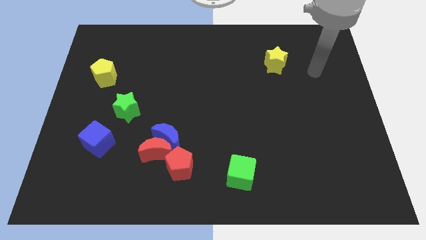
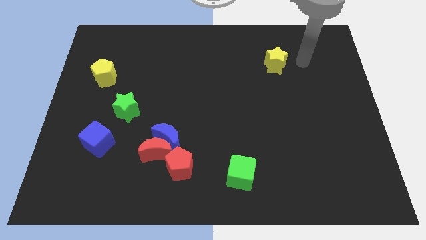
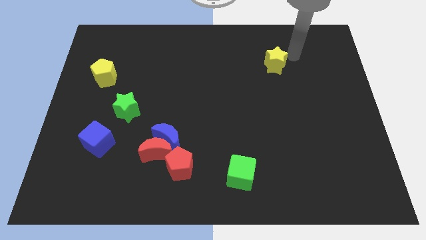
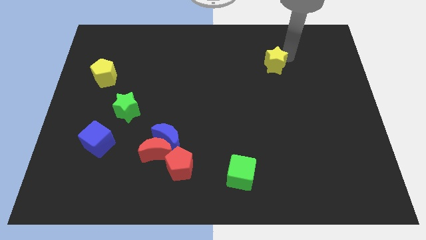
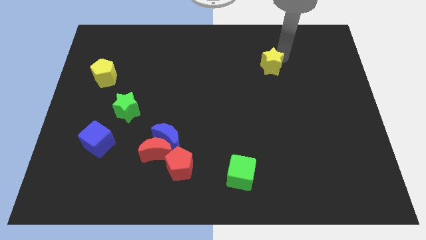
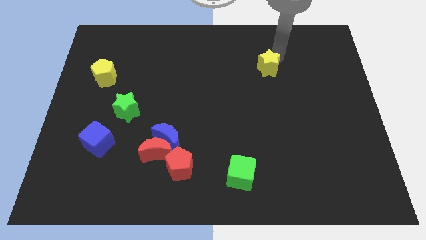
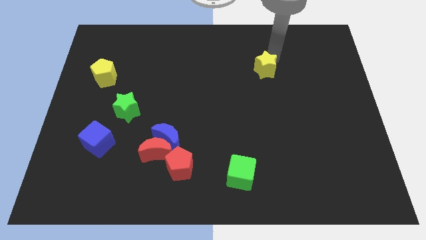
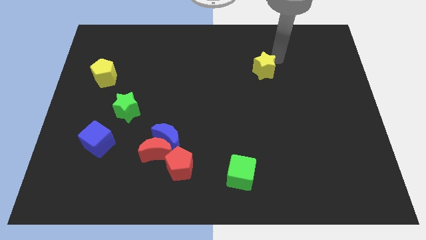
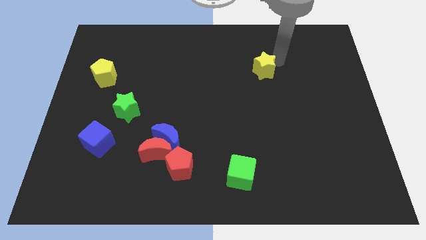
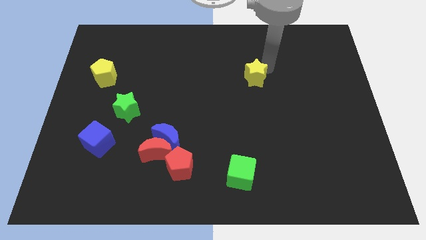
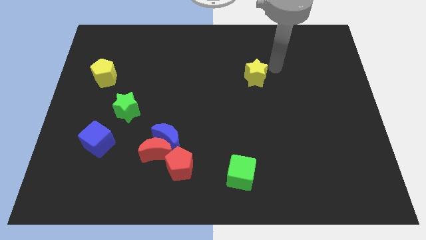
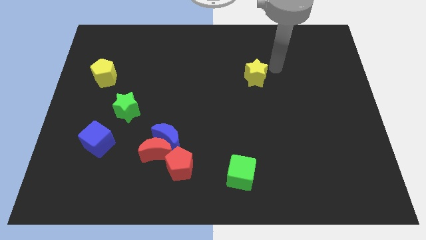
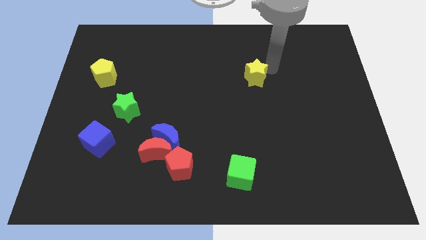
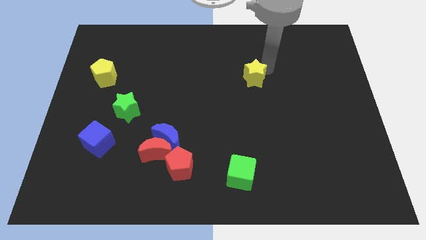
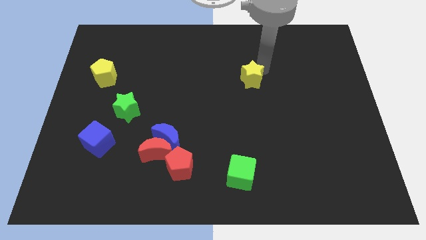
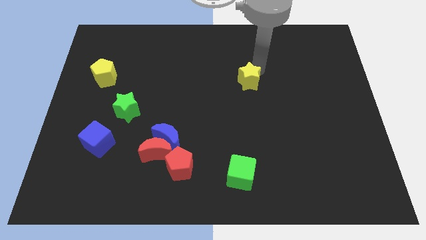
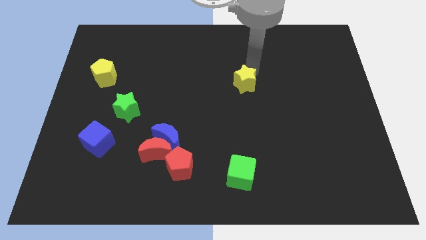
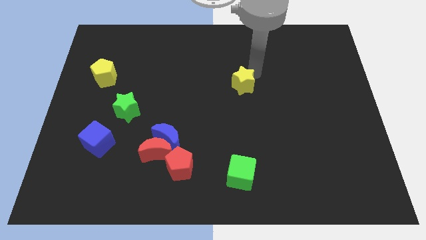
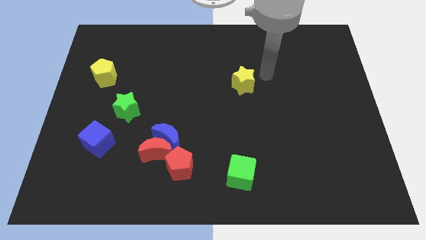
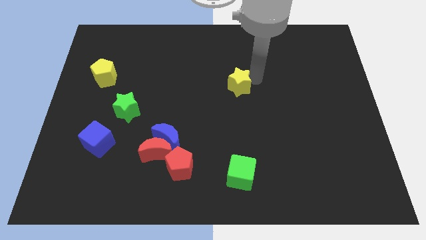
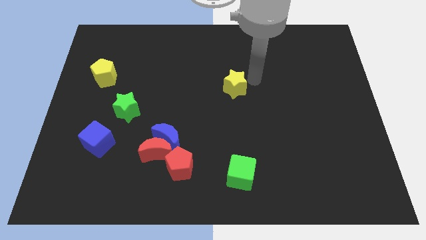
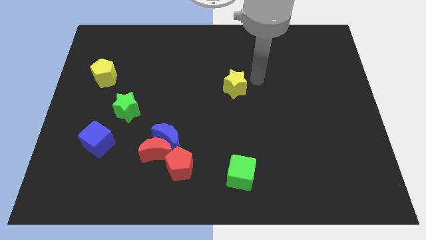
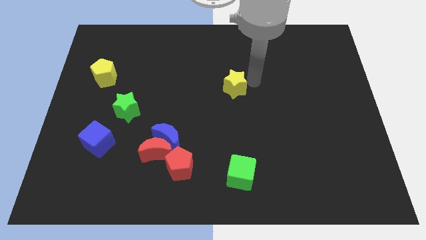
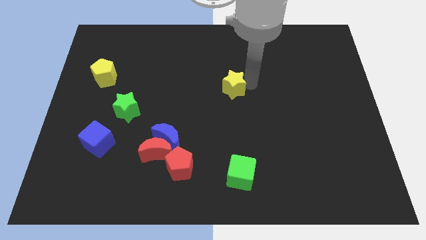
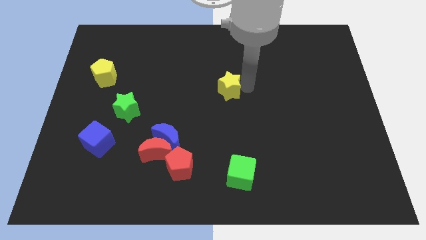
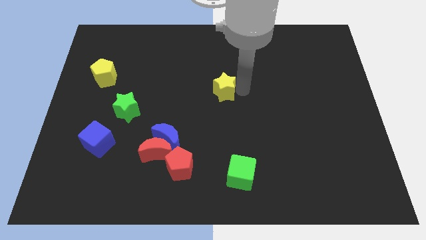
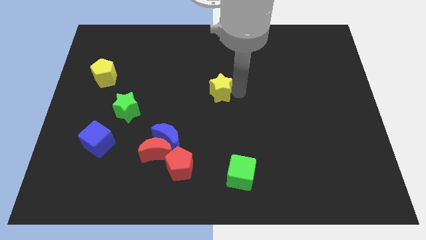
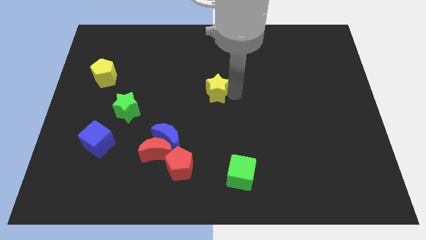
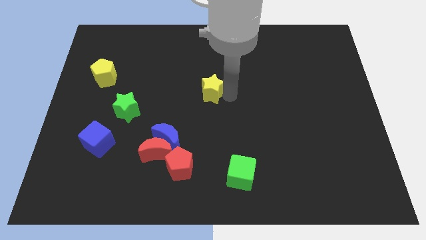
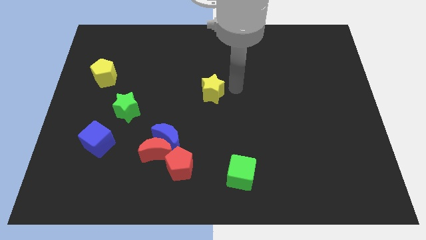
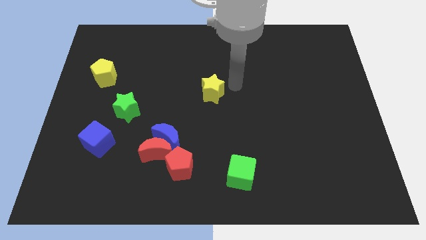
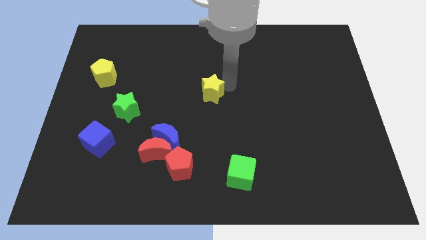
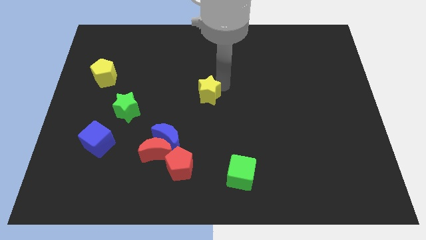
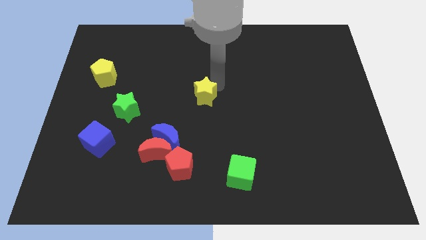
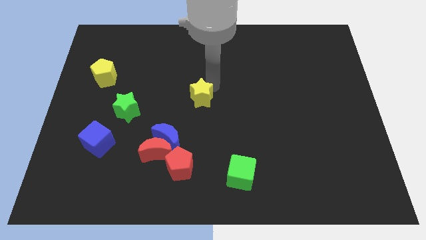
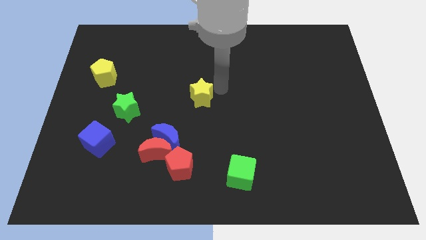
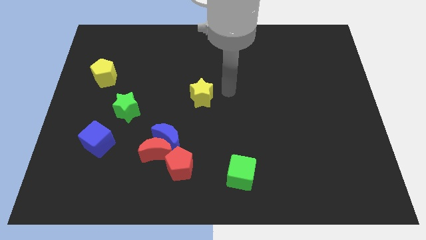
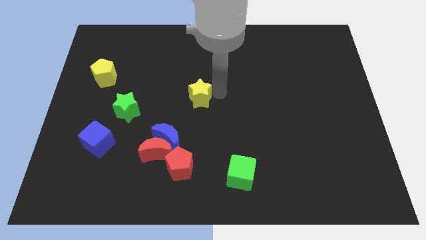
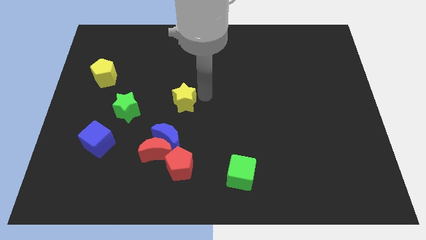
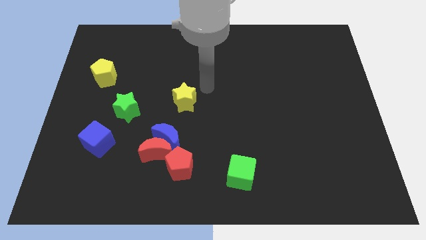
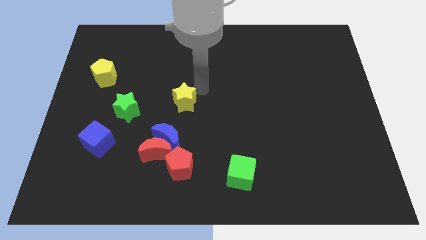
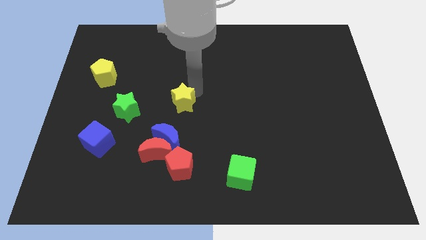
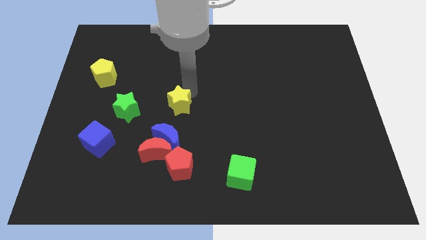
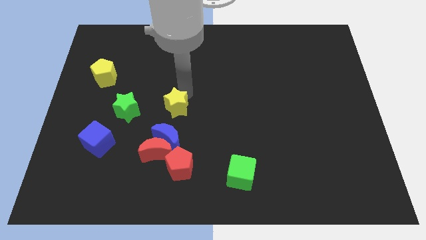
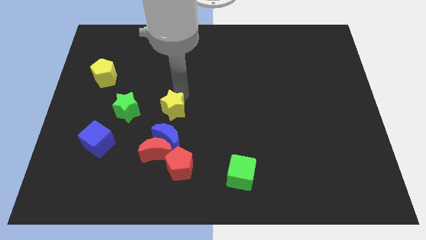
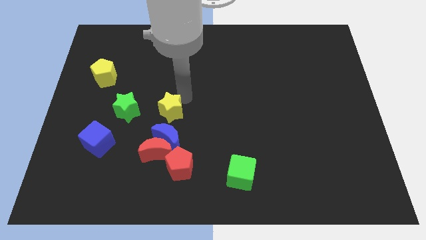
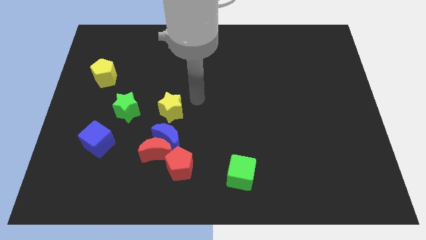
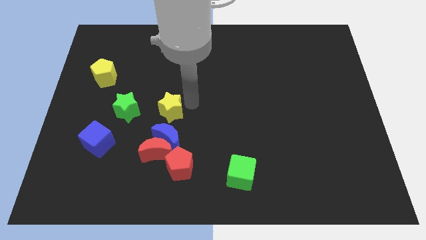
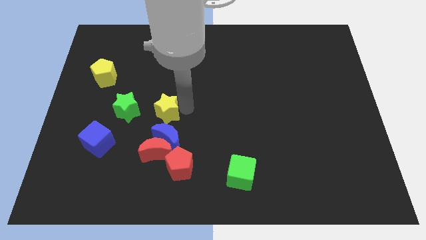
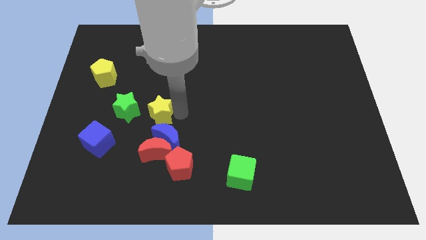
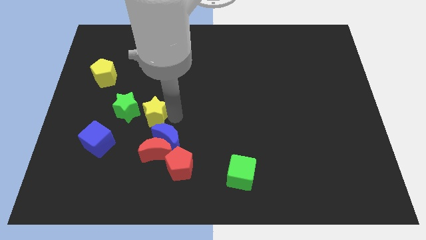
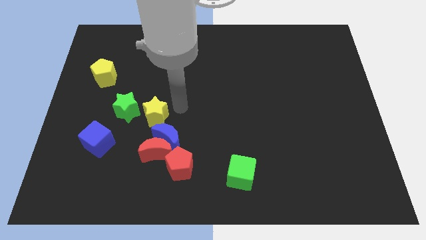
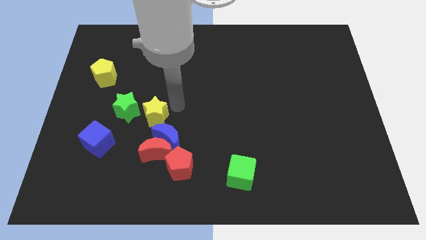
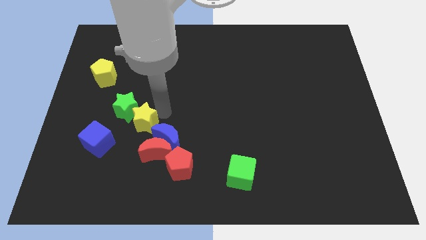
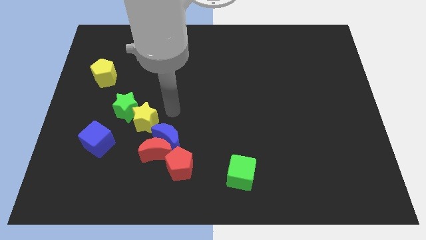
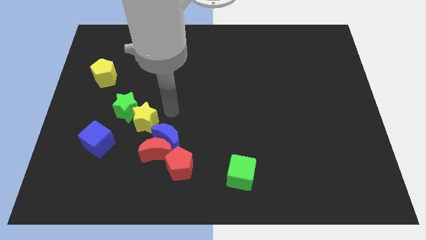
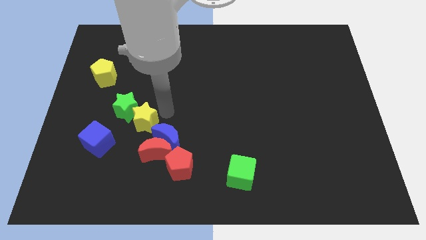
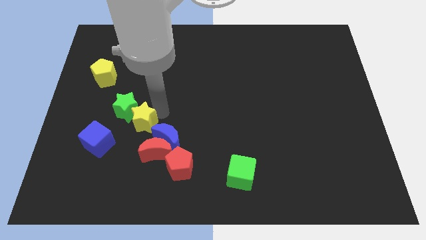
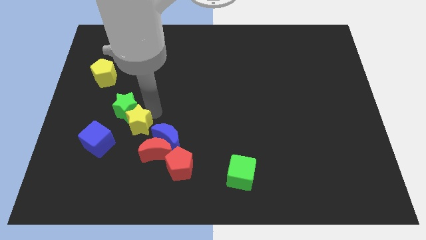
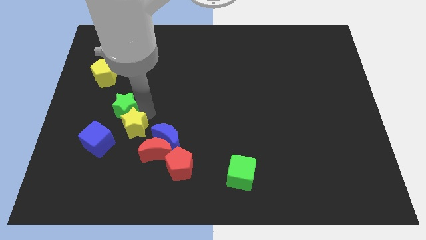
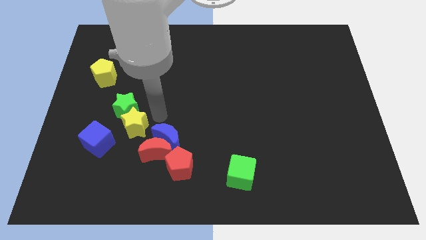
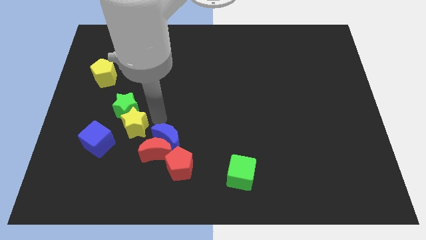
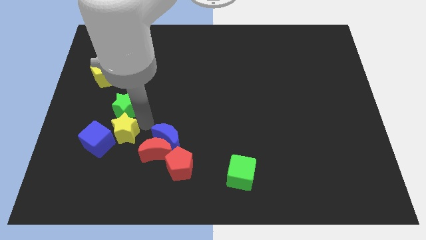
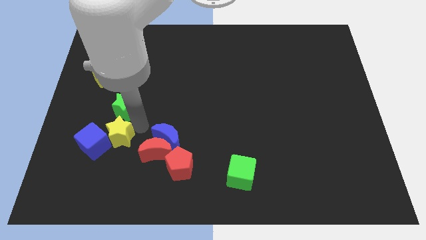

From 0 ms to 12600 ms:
push the yellow star towards the blue cube
